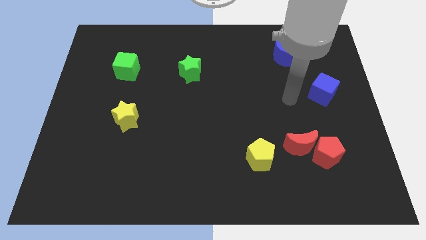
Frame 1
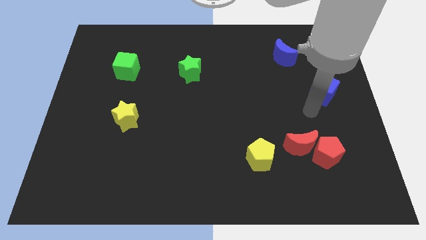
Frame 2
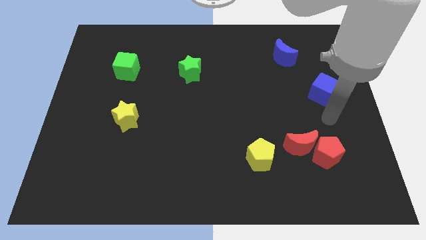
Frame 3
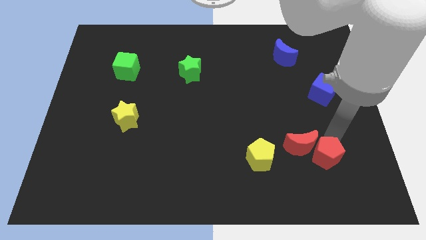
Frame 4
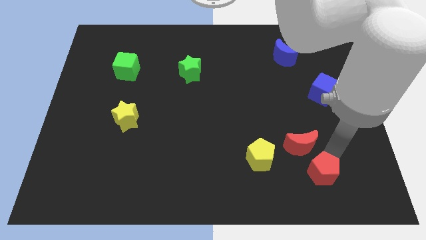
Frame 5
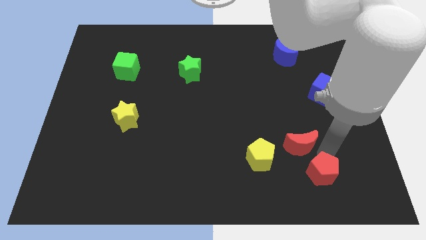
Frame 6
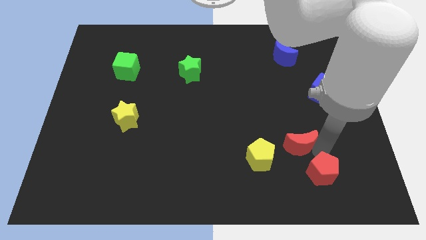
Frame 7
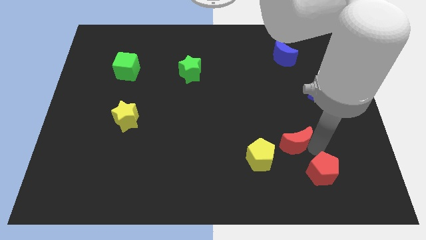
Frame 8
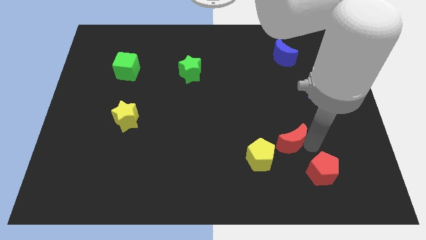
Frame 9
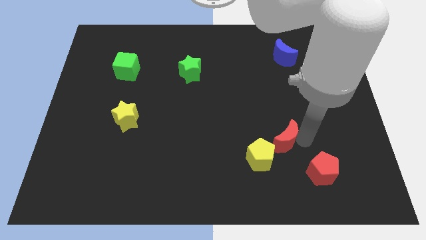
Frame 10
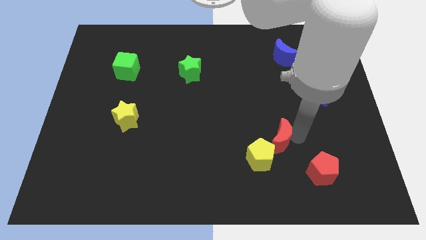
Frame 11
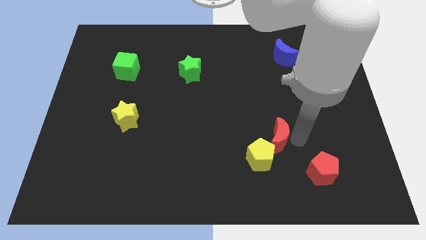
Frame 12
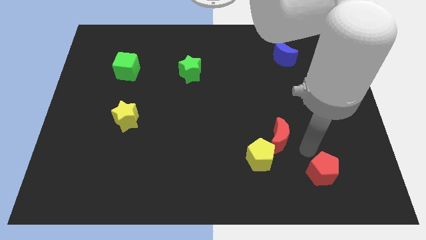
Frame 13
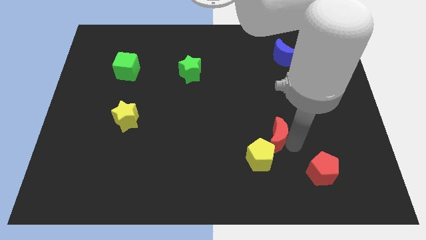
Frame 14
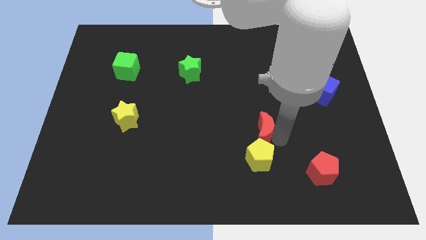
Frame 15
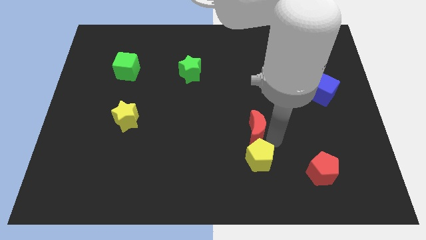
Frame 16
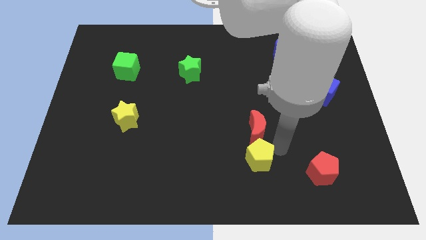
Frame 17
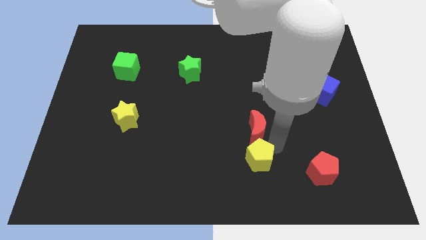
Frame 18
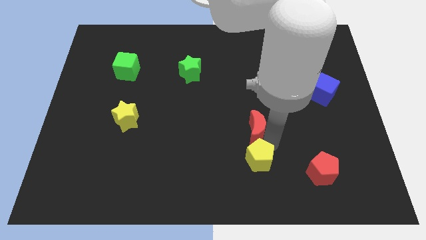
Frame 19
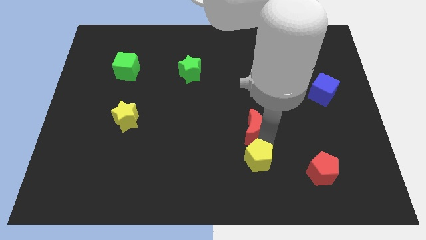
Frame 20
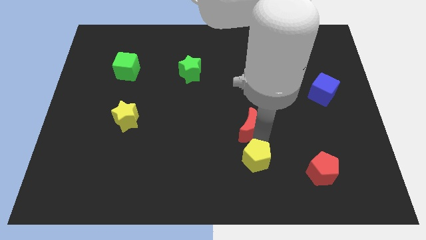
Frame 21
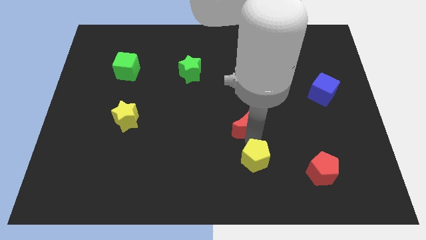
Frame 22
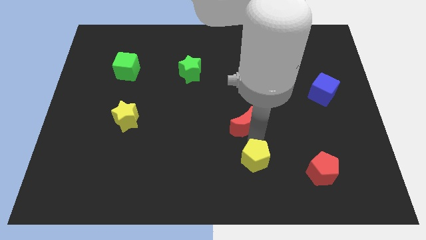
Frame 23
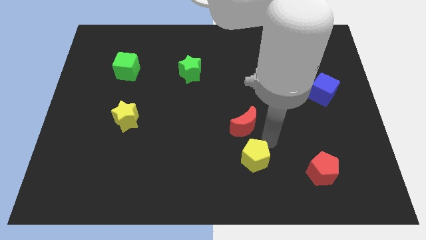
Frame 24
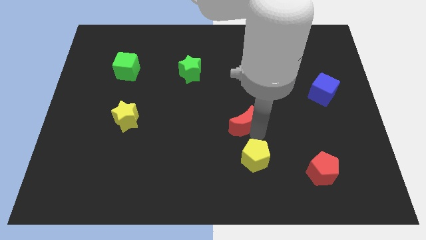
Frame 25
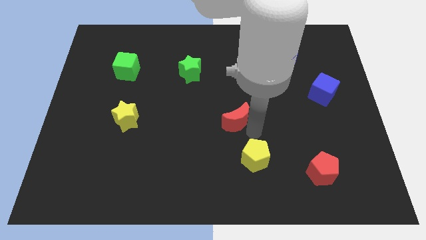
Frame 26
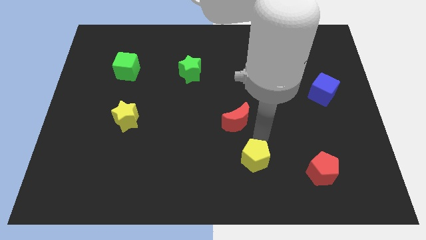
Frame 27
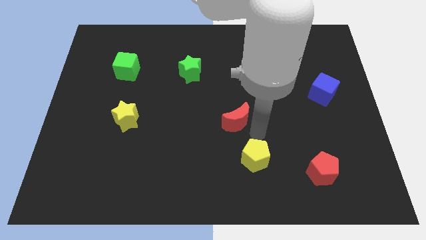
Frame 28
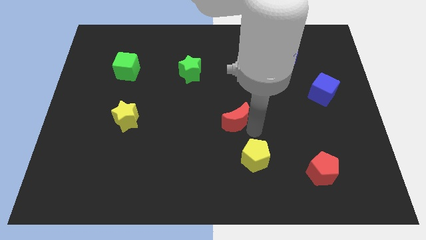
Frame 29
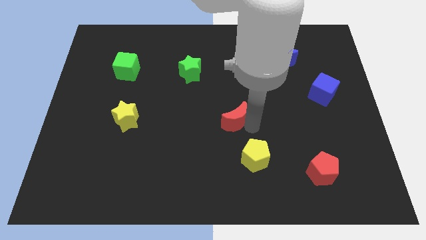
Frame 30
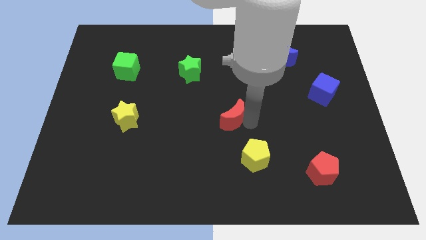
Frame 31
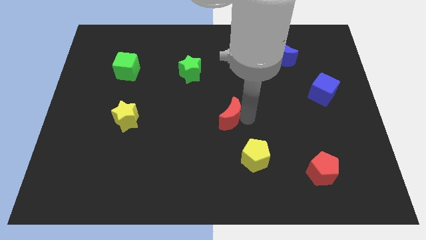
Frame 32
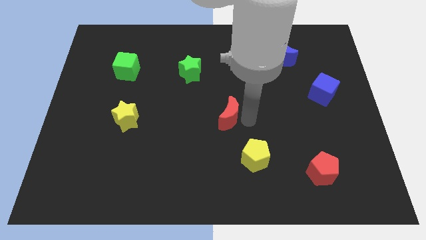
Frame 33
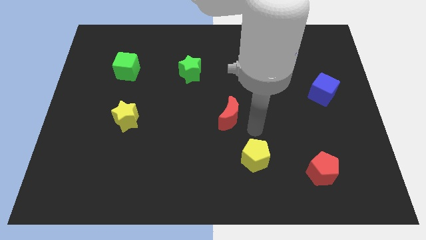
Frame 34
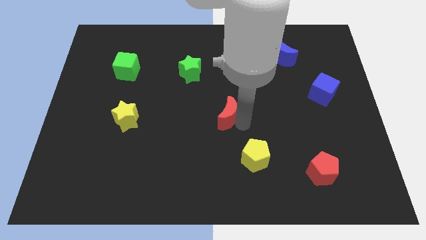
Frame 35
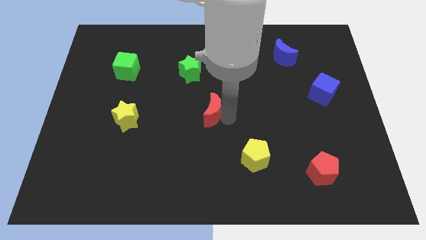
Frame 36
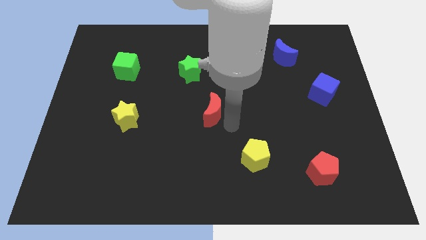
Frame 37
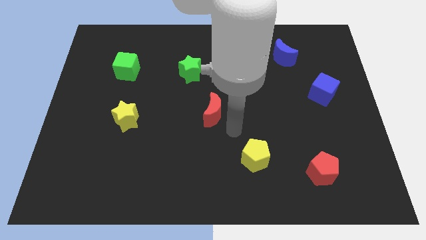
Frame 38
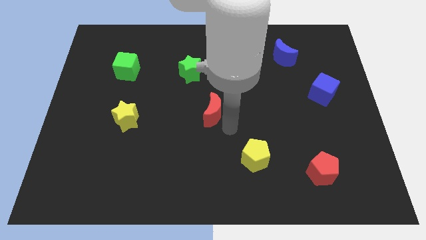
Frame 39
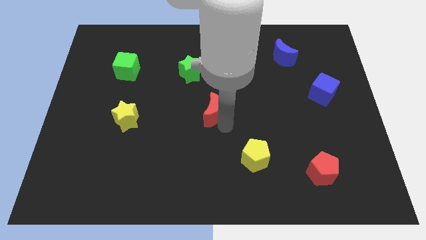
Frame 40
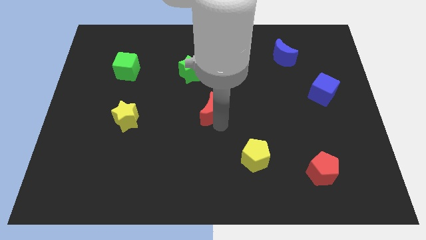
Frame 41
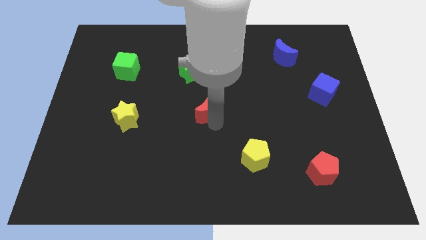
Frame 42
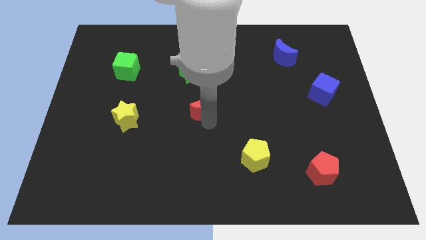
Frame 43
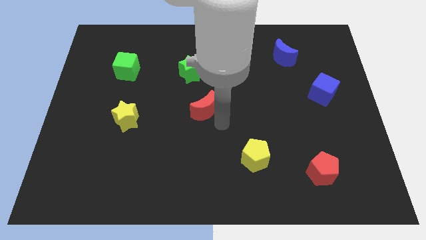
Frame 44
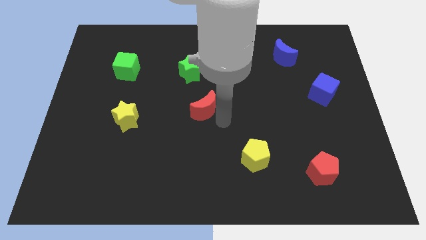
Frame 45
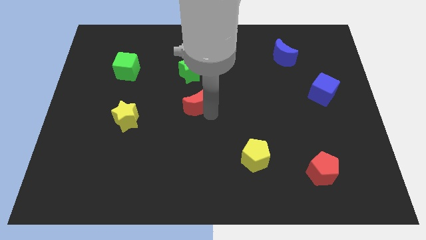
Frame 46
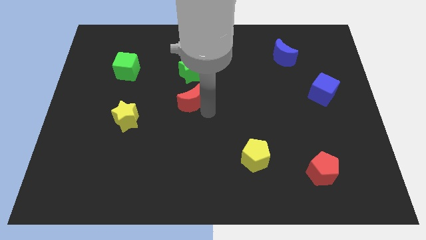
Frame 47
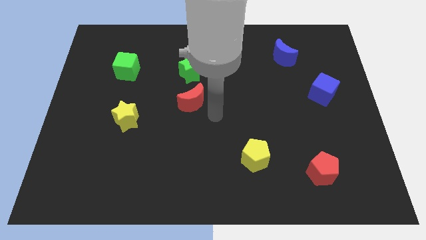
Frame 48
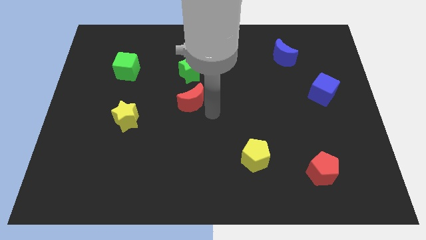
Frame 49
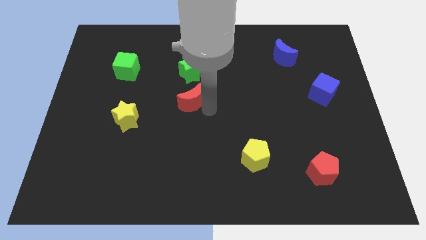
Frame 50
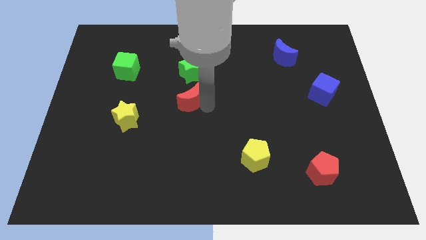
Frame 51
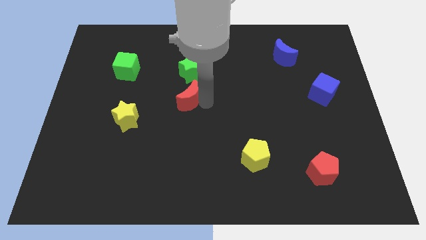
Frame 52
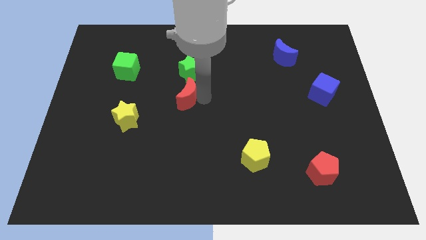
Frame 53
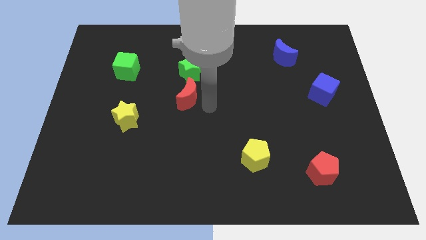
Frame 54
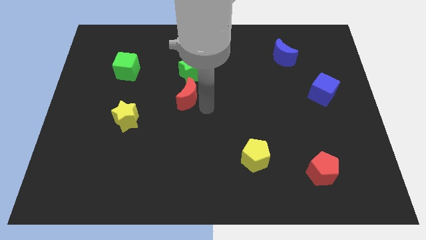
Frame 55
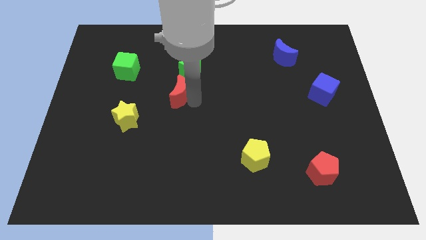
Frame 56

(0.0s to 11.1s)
slide the red moon to the bottom left of the green star

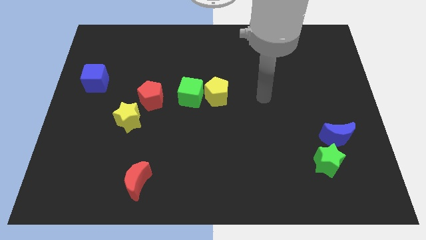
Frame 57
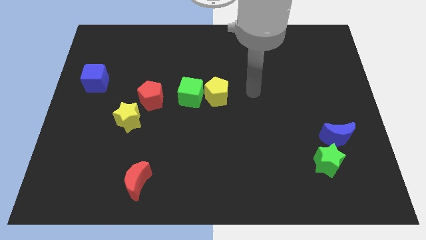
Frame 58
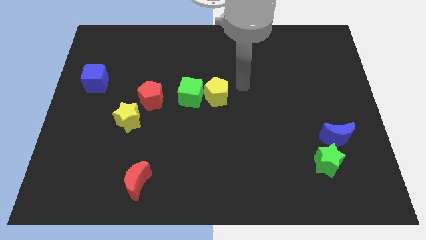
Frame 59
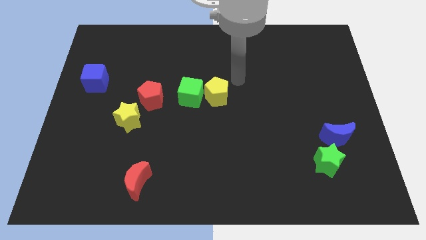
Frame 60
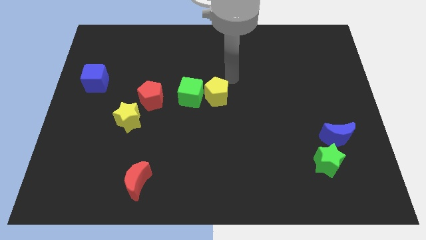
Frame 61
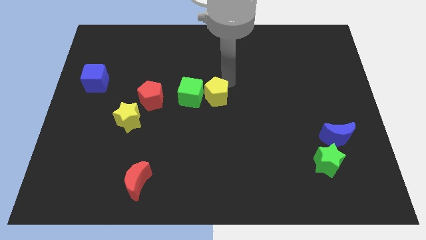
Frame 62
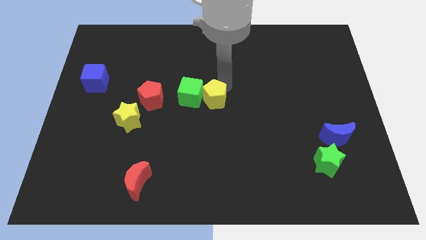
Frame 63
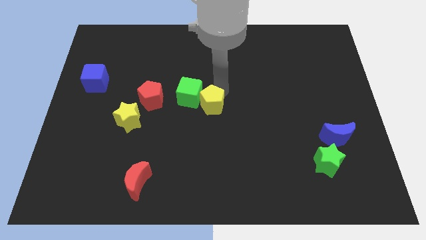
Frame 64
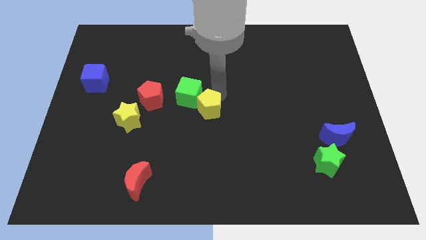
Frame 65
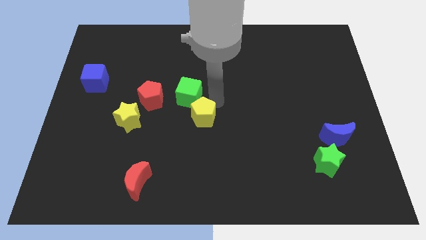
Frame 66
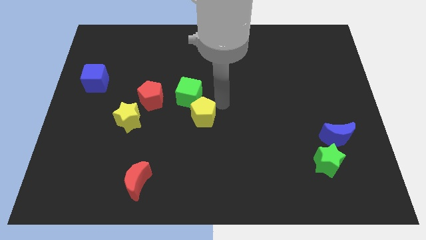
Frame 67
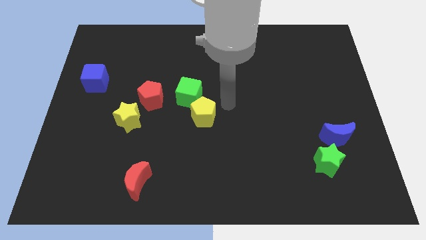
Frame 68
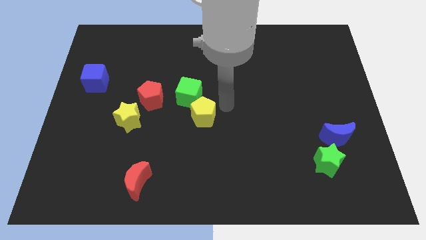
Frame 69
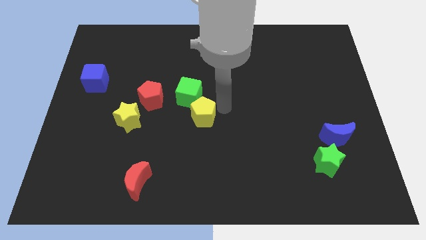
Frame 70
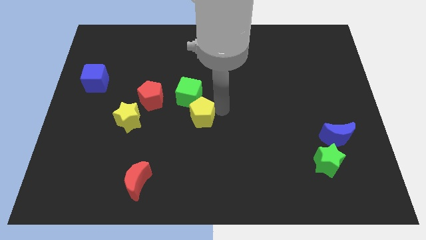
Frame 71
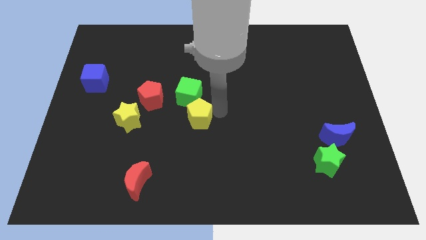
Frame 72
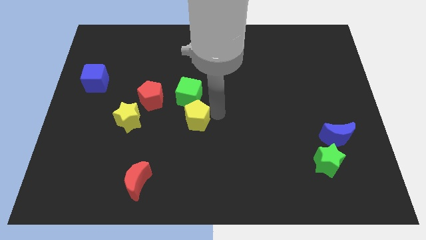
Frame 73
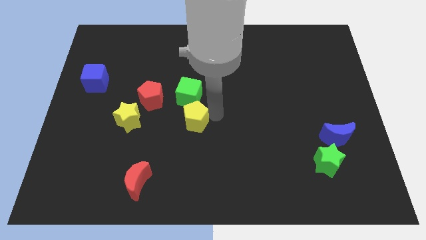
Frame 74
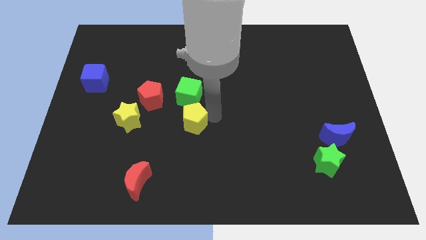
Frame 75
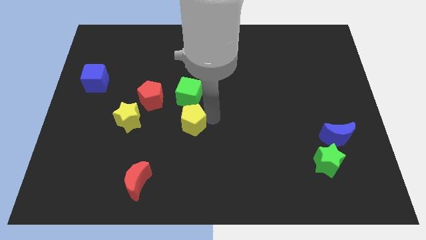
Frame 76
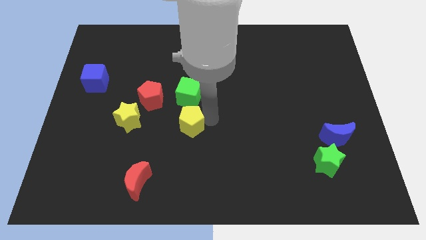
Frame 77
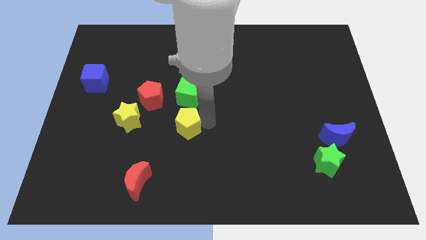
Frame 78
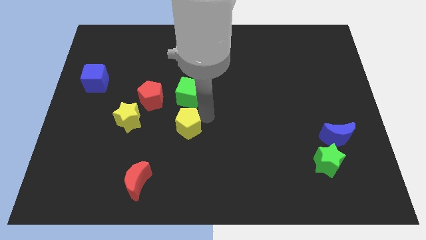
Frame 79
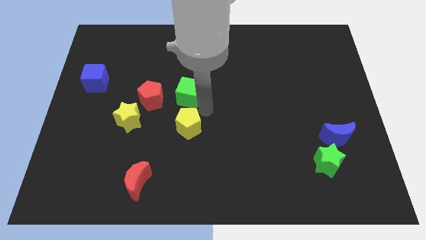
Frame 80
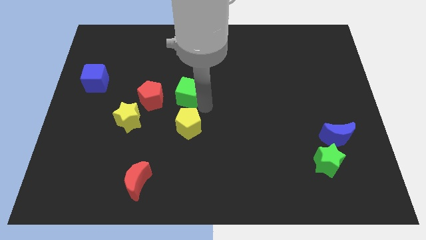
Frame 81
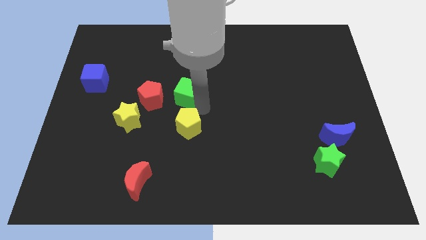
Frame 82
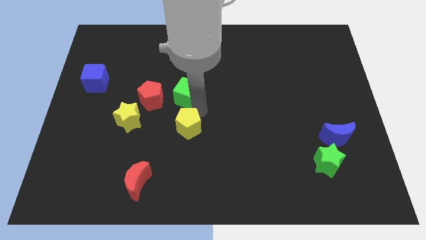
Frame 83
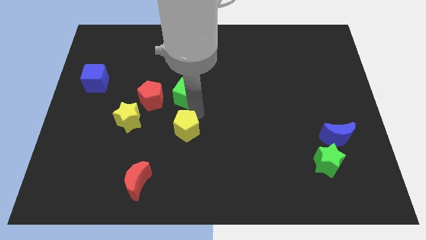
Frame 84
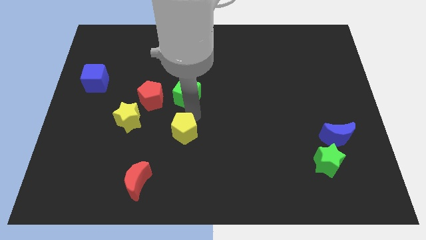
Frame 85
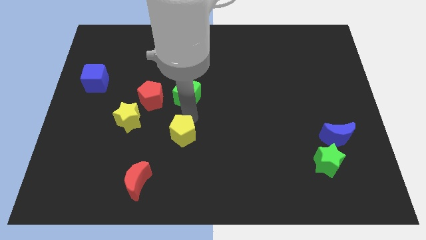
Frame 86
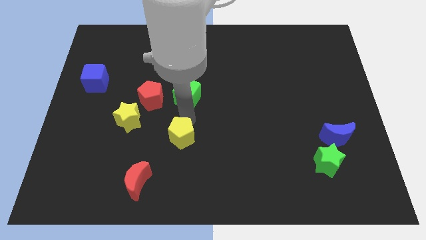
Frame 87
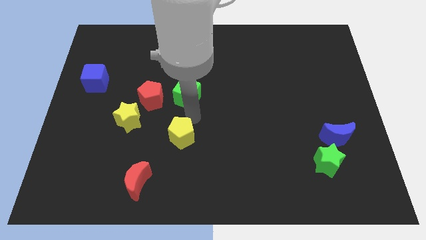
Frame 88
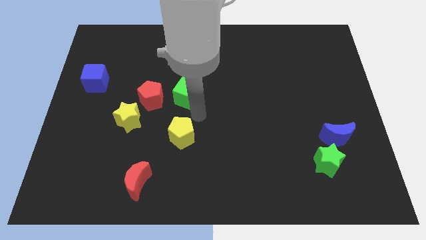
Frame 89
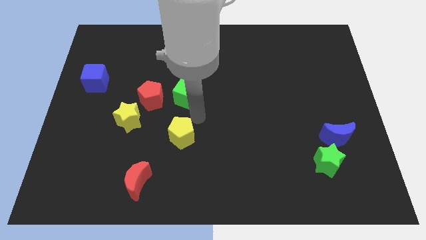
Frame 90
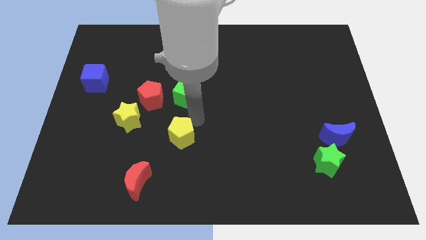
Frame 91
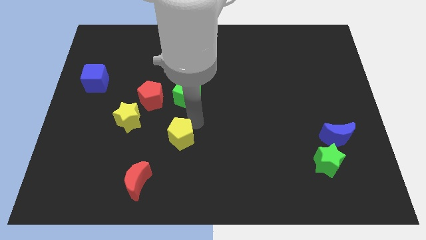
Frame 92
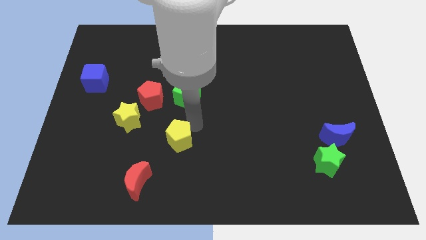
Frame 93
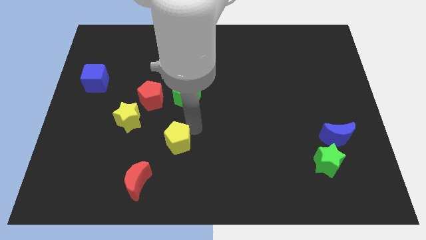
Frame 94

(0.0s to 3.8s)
move the yellow pentagon to the top right of the red moon
